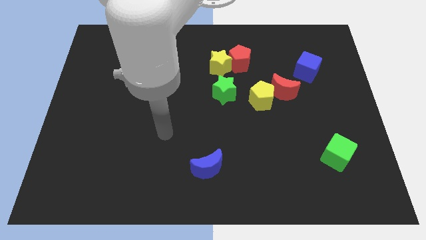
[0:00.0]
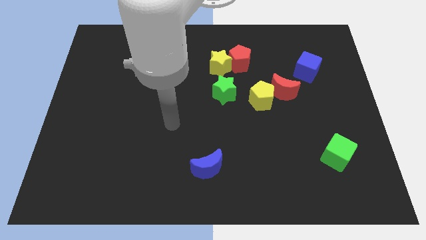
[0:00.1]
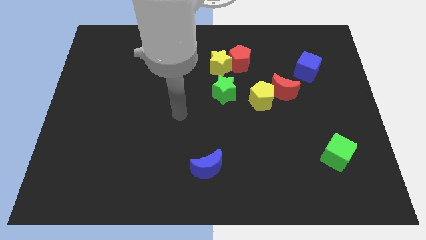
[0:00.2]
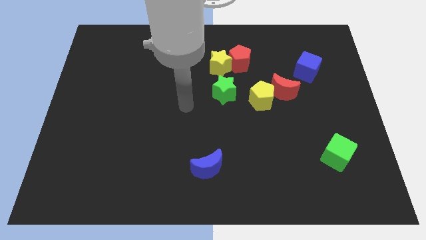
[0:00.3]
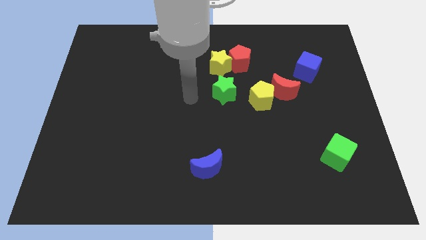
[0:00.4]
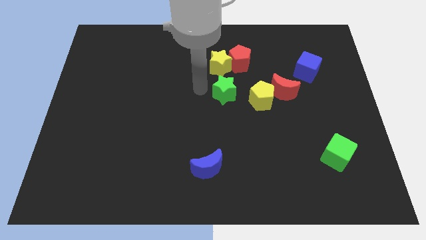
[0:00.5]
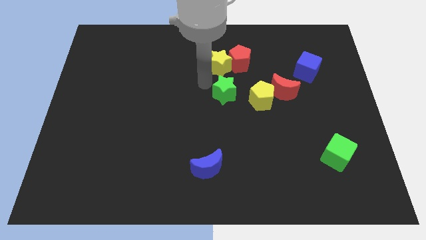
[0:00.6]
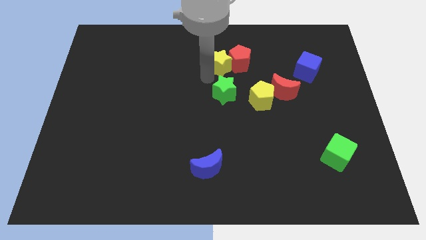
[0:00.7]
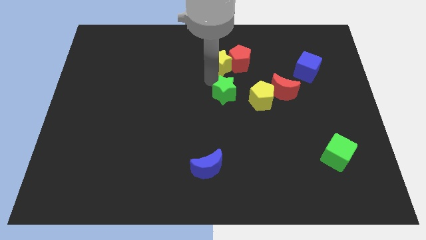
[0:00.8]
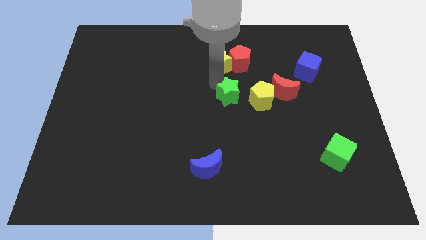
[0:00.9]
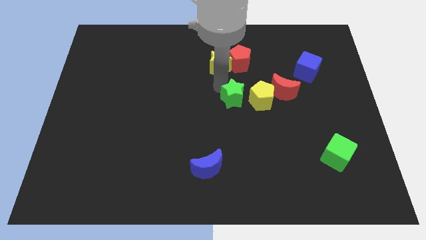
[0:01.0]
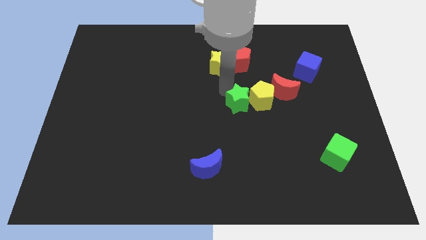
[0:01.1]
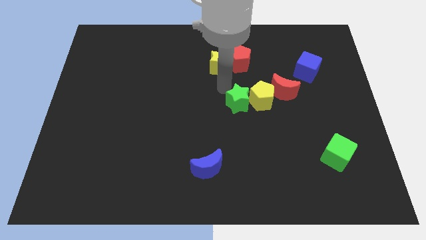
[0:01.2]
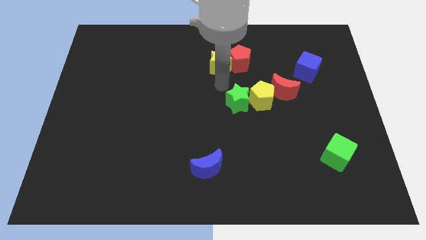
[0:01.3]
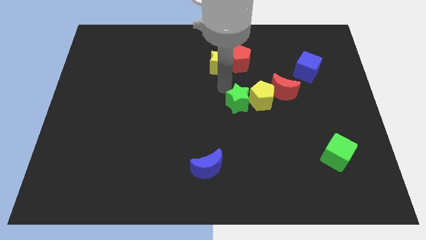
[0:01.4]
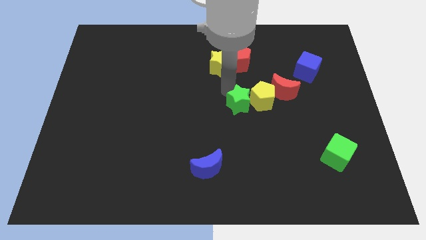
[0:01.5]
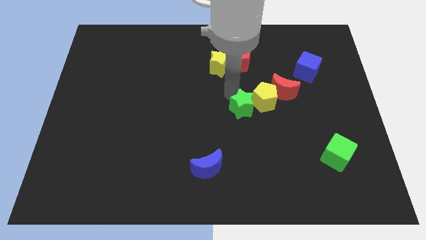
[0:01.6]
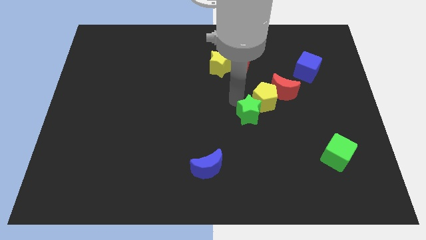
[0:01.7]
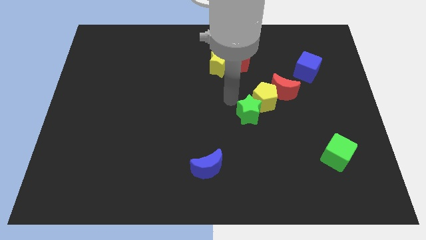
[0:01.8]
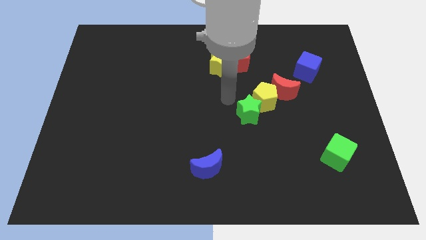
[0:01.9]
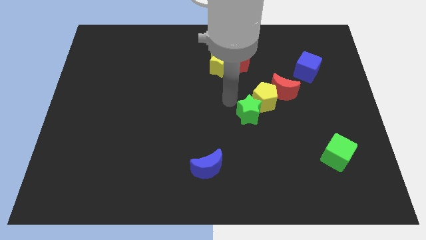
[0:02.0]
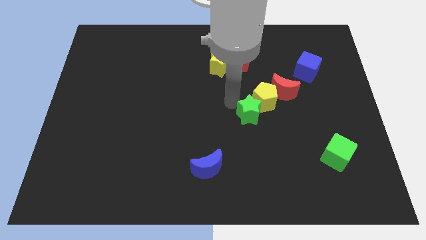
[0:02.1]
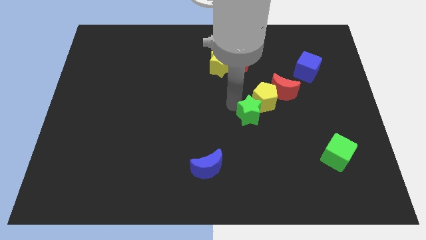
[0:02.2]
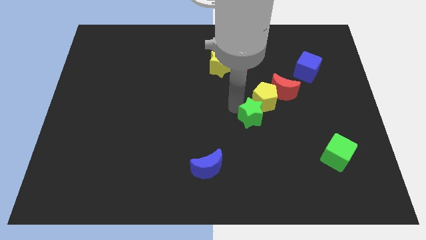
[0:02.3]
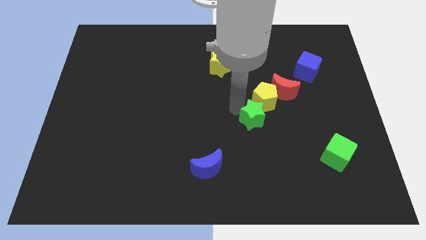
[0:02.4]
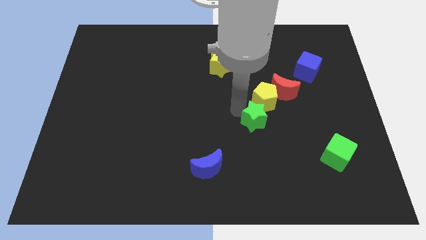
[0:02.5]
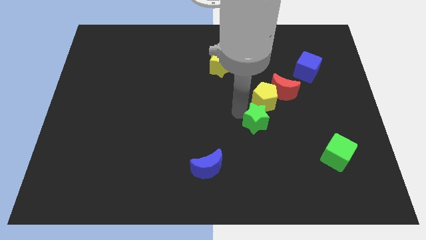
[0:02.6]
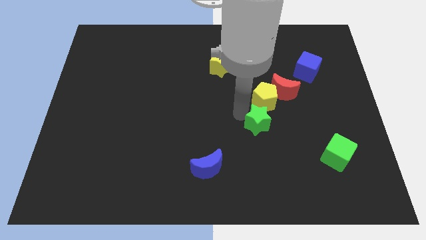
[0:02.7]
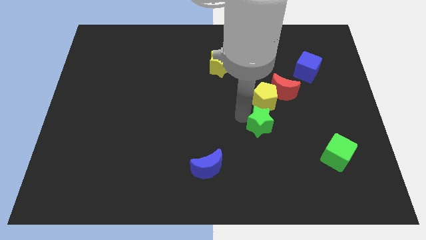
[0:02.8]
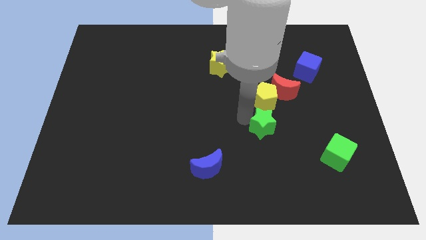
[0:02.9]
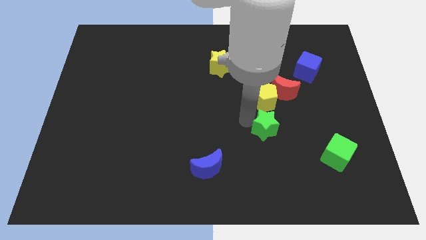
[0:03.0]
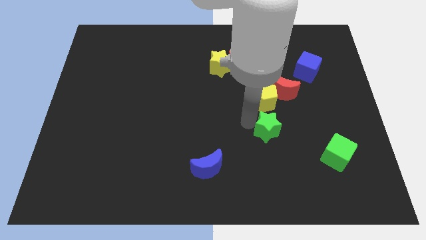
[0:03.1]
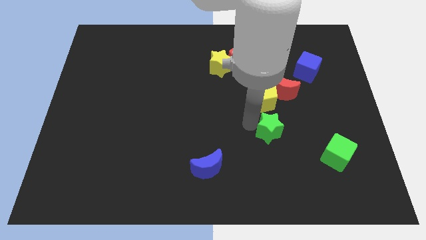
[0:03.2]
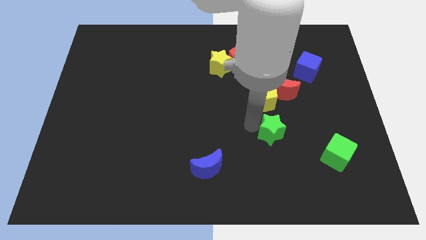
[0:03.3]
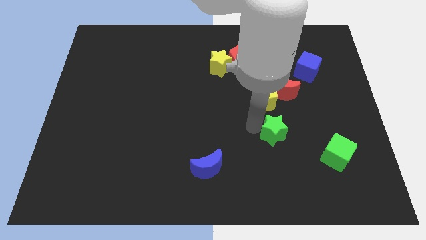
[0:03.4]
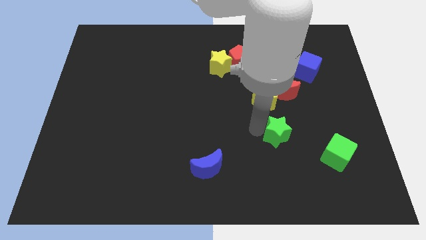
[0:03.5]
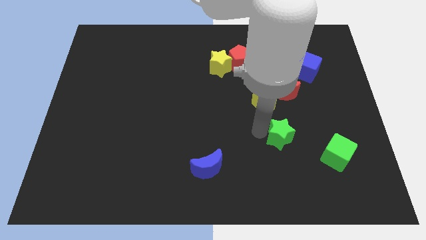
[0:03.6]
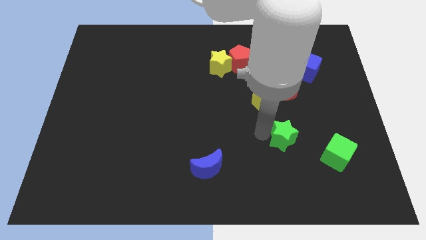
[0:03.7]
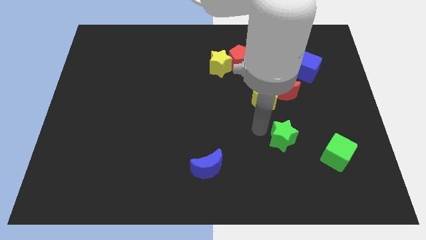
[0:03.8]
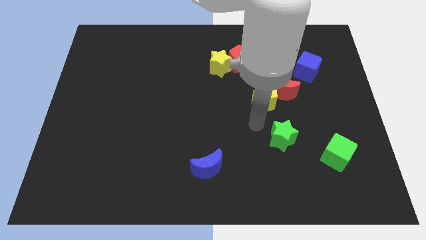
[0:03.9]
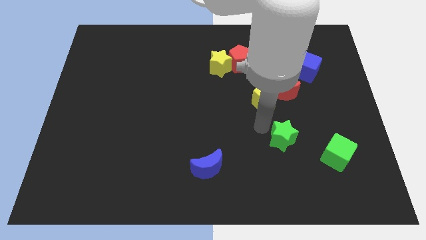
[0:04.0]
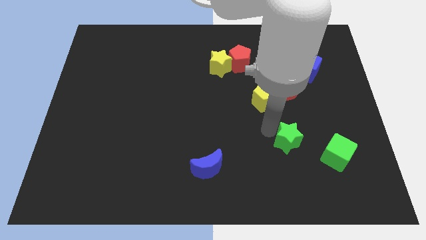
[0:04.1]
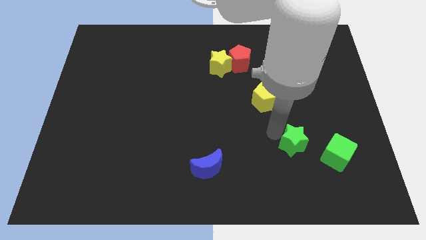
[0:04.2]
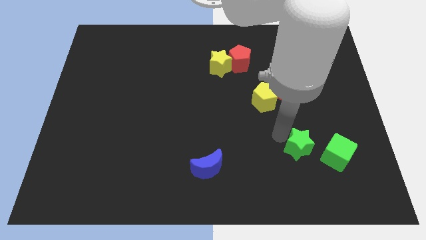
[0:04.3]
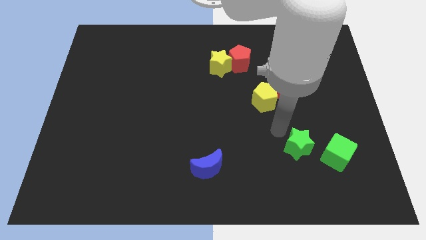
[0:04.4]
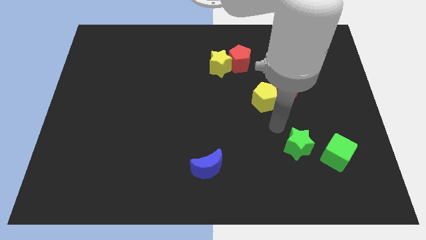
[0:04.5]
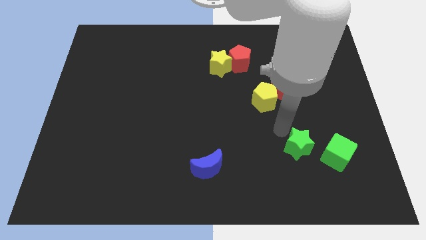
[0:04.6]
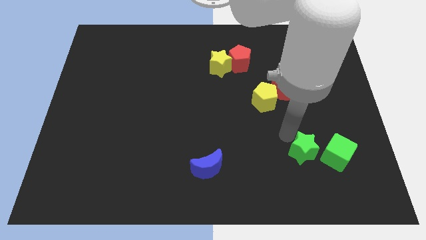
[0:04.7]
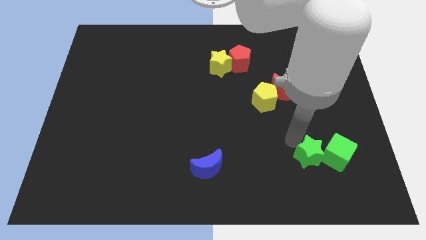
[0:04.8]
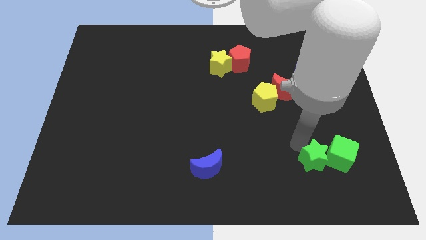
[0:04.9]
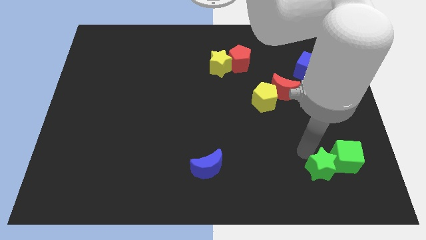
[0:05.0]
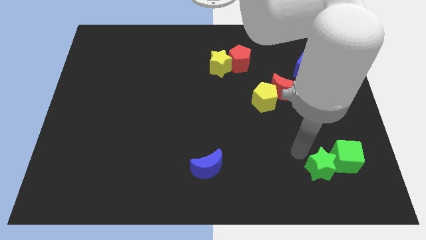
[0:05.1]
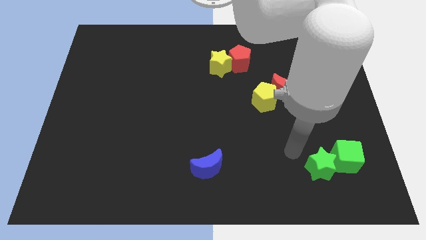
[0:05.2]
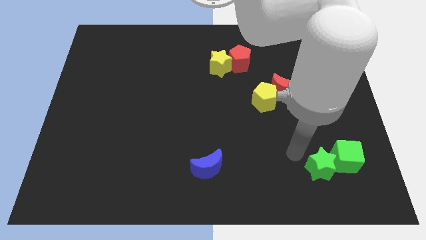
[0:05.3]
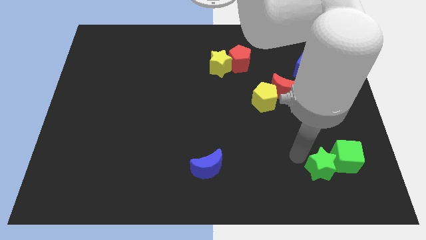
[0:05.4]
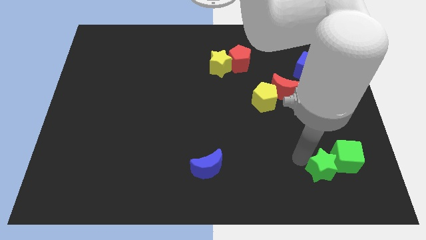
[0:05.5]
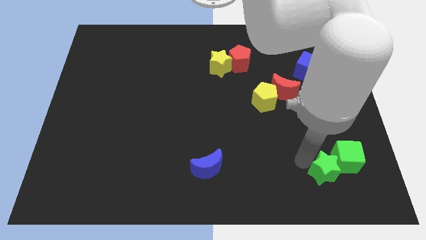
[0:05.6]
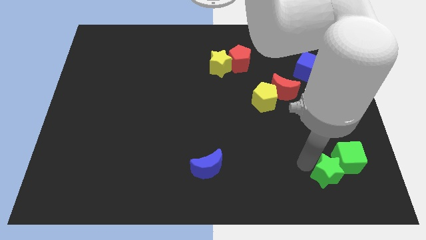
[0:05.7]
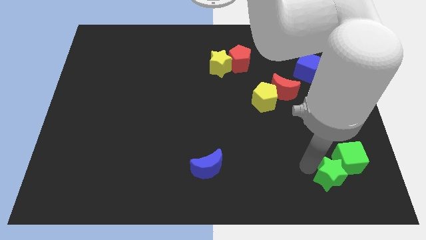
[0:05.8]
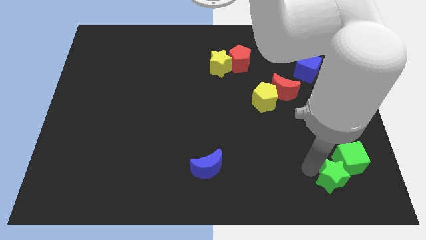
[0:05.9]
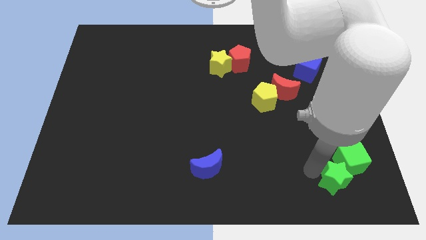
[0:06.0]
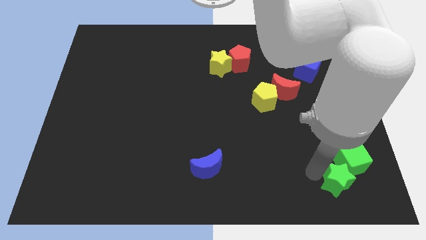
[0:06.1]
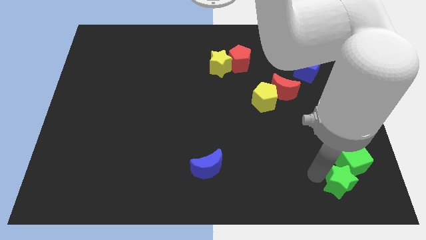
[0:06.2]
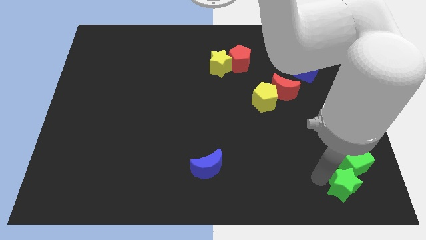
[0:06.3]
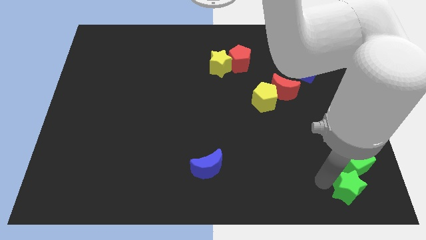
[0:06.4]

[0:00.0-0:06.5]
slide the green star to the bottom right corner
